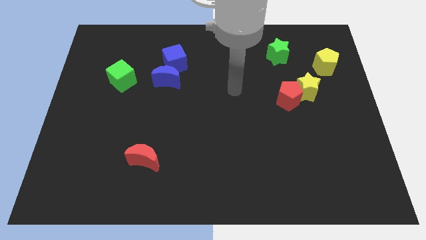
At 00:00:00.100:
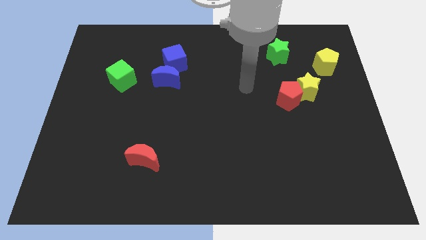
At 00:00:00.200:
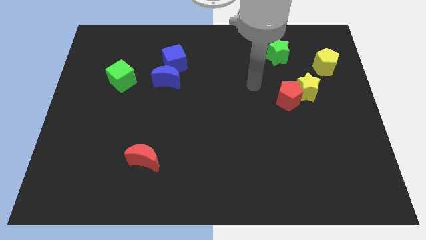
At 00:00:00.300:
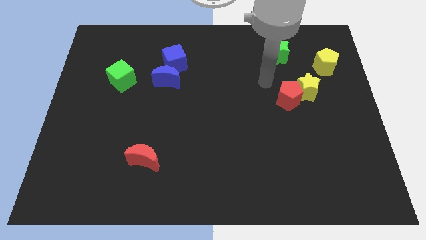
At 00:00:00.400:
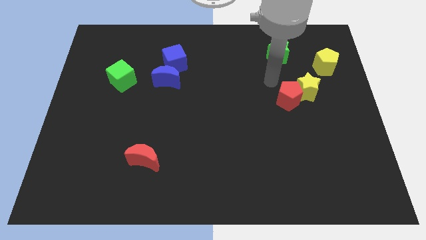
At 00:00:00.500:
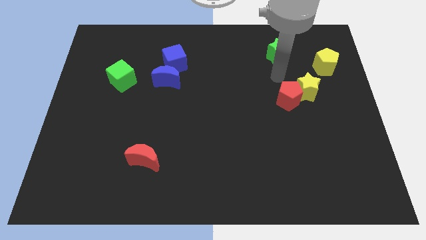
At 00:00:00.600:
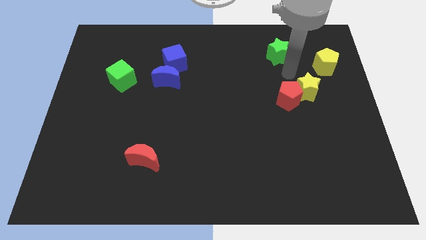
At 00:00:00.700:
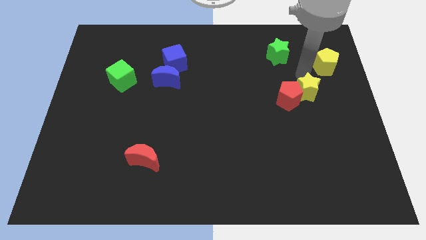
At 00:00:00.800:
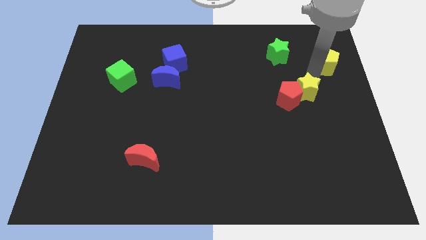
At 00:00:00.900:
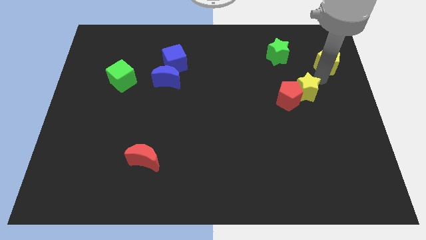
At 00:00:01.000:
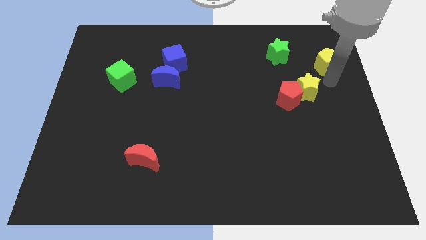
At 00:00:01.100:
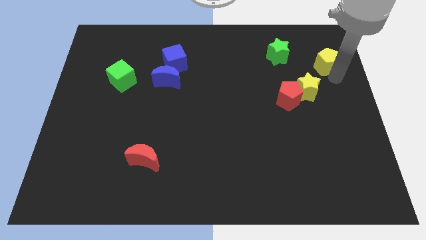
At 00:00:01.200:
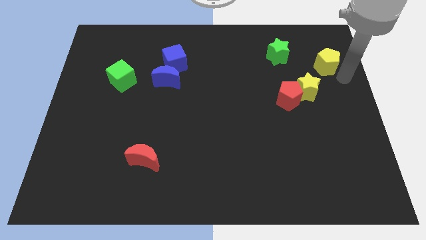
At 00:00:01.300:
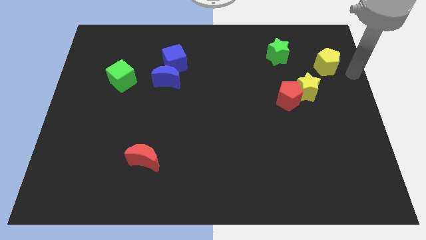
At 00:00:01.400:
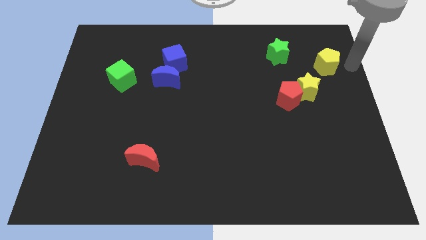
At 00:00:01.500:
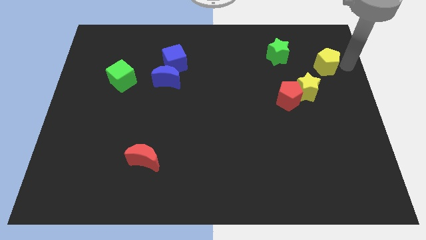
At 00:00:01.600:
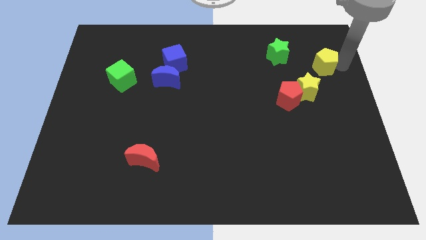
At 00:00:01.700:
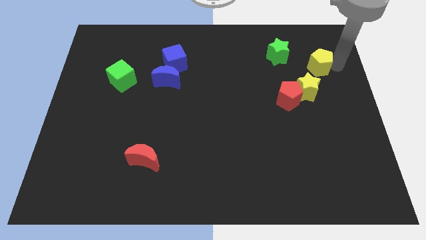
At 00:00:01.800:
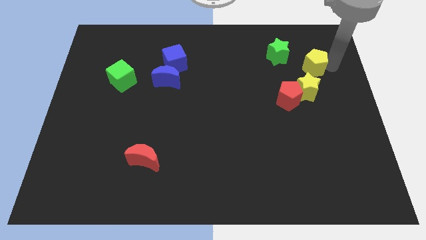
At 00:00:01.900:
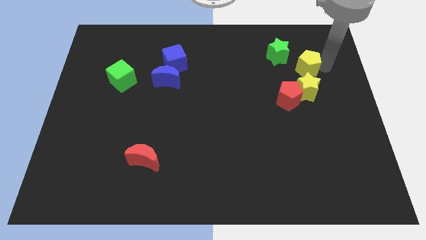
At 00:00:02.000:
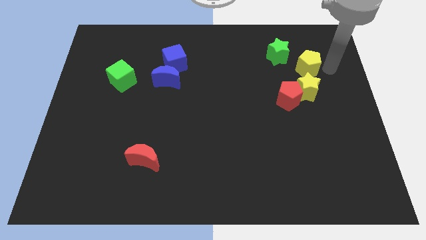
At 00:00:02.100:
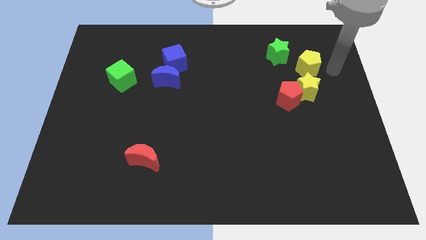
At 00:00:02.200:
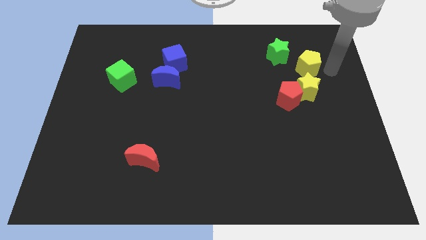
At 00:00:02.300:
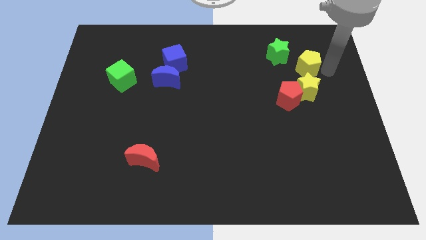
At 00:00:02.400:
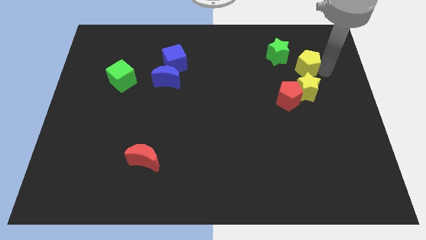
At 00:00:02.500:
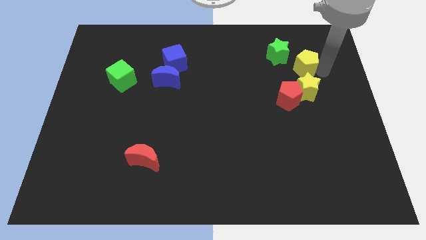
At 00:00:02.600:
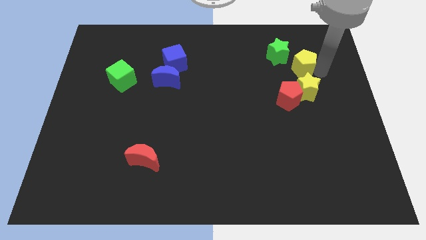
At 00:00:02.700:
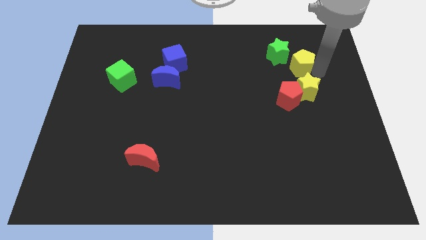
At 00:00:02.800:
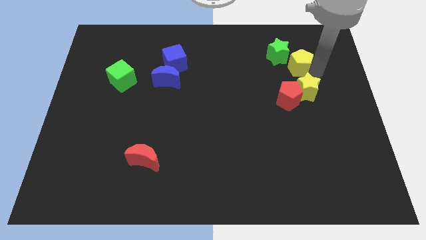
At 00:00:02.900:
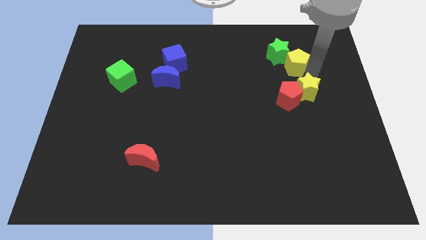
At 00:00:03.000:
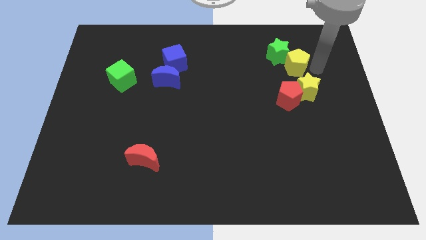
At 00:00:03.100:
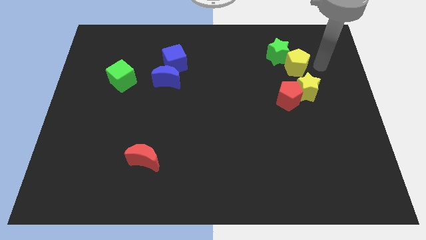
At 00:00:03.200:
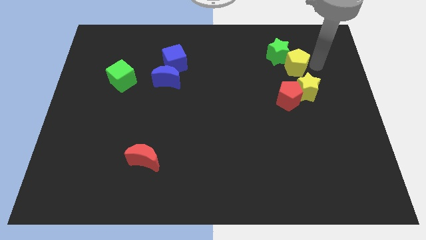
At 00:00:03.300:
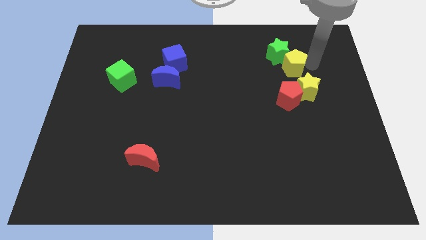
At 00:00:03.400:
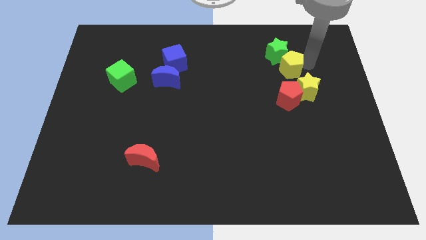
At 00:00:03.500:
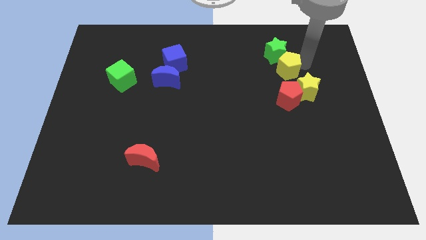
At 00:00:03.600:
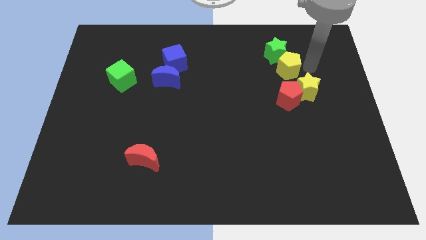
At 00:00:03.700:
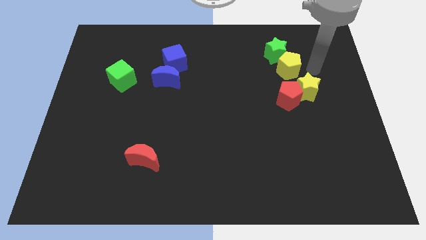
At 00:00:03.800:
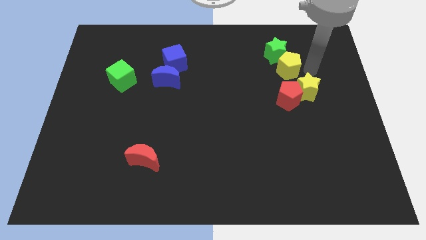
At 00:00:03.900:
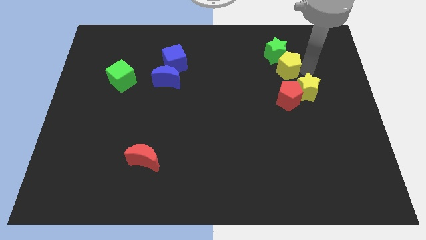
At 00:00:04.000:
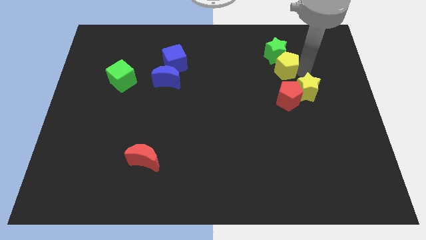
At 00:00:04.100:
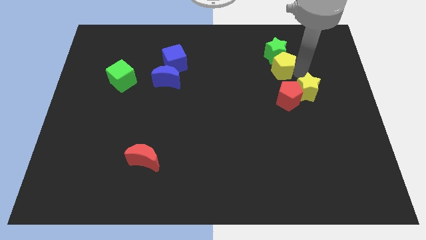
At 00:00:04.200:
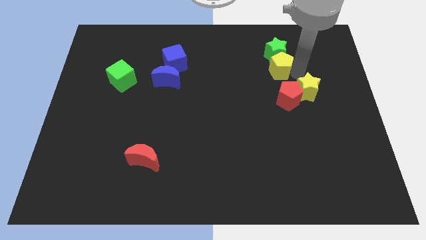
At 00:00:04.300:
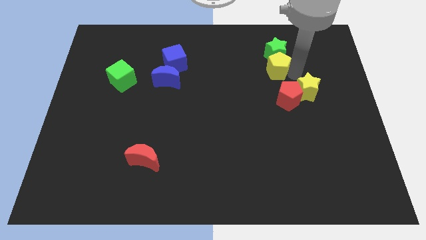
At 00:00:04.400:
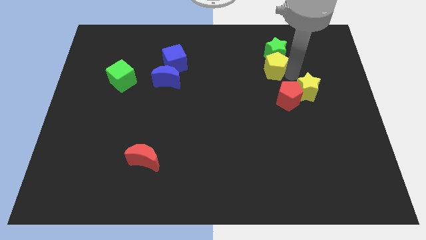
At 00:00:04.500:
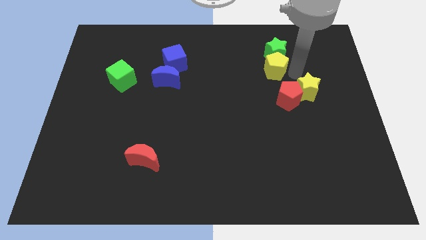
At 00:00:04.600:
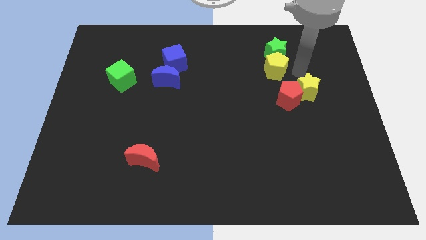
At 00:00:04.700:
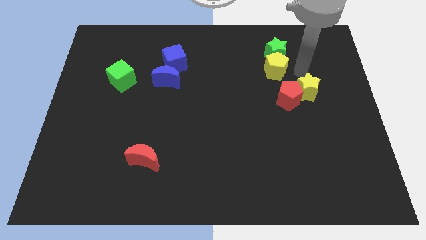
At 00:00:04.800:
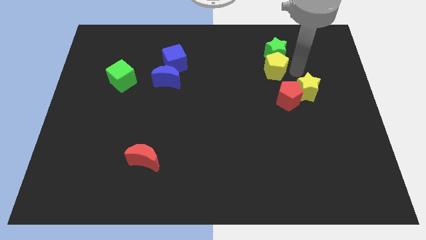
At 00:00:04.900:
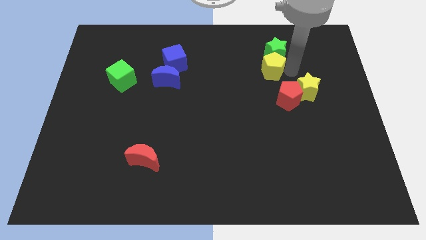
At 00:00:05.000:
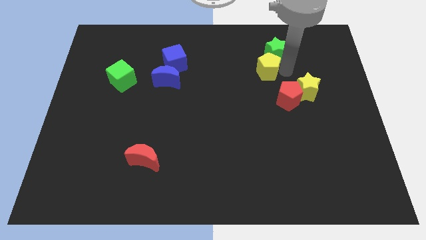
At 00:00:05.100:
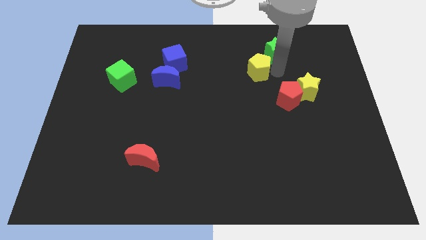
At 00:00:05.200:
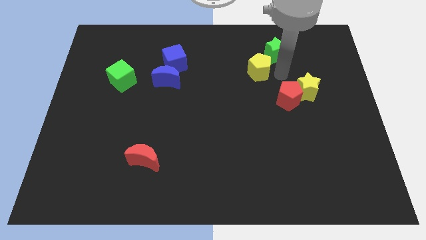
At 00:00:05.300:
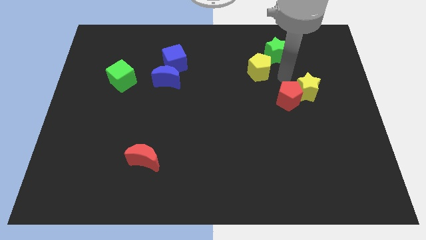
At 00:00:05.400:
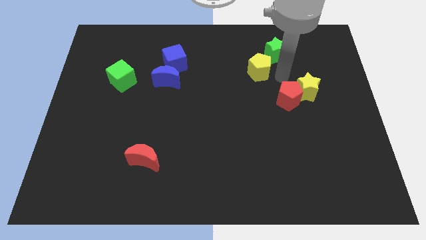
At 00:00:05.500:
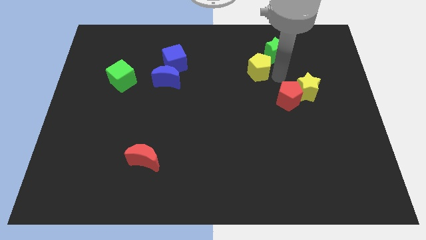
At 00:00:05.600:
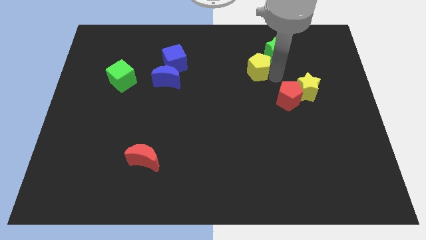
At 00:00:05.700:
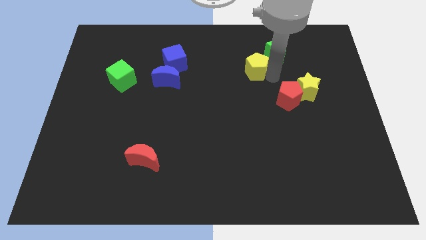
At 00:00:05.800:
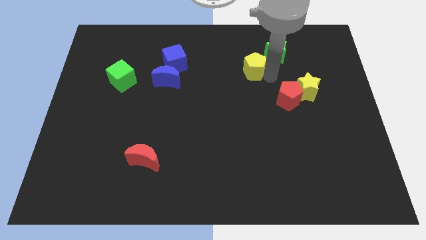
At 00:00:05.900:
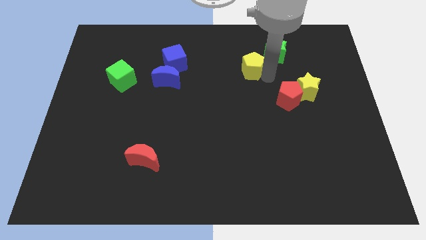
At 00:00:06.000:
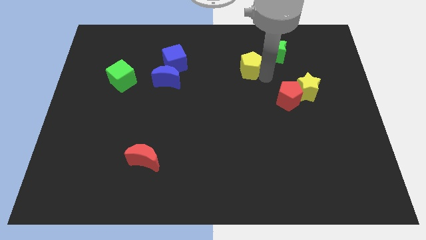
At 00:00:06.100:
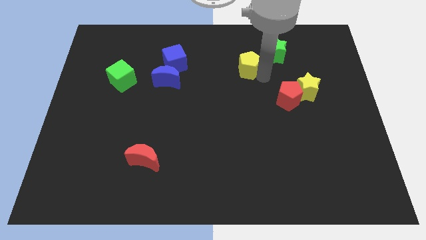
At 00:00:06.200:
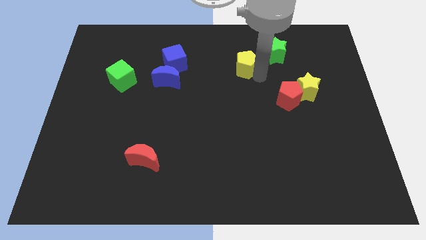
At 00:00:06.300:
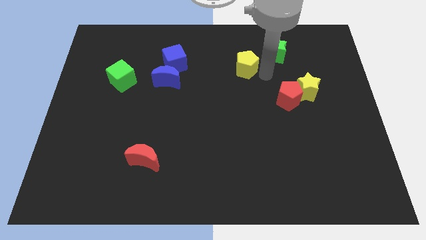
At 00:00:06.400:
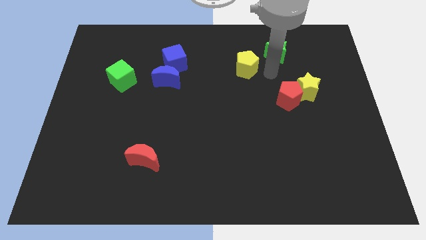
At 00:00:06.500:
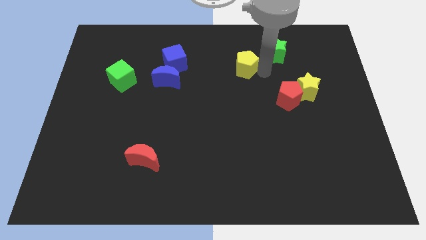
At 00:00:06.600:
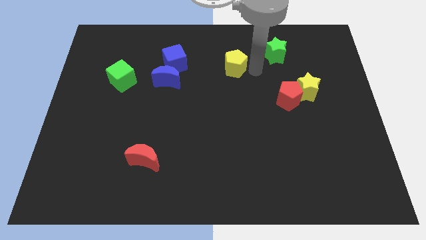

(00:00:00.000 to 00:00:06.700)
put the yellow pentagon to the right side of the blue cube

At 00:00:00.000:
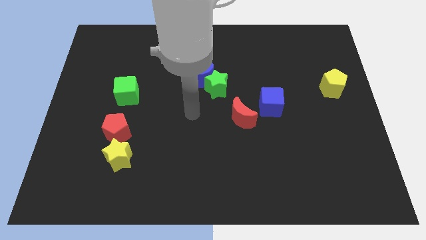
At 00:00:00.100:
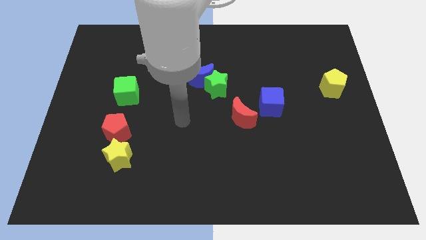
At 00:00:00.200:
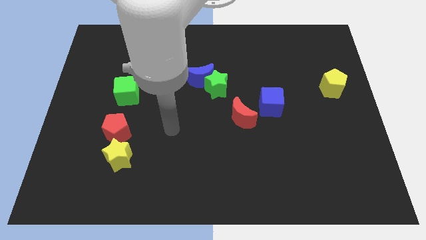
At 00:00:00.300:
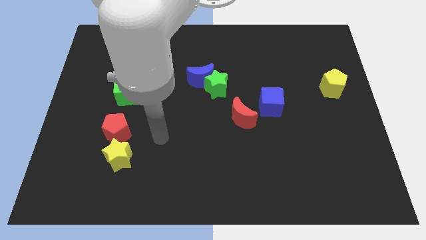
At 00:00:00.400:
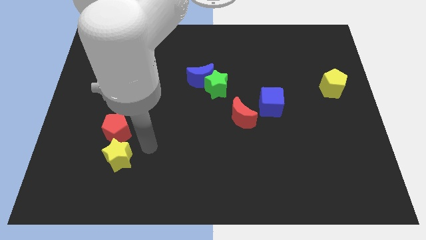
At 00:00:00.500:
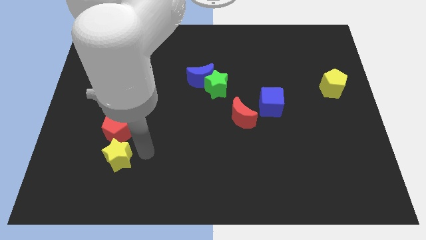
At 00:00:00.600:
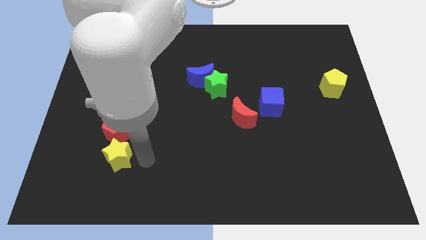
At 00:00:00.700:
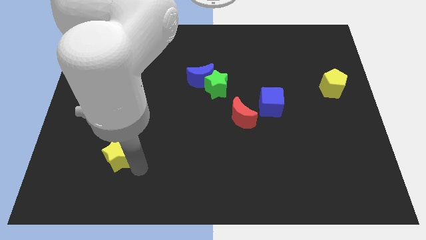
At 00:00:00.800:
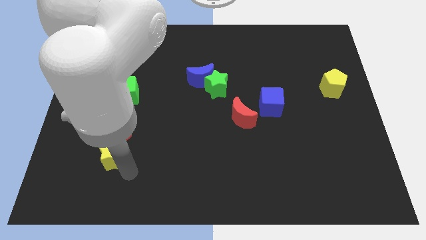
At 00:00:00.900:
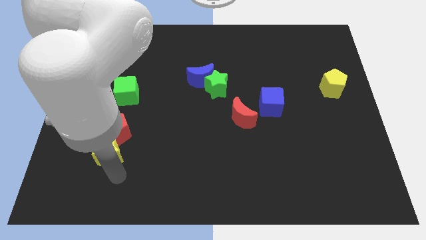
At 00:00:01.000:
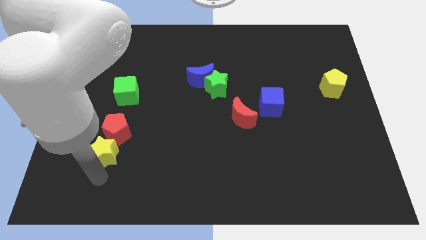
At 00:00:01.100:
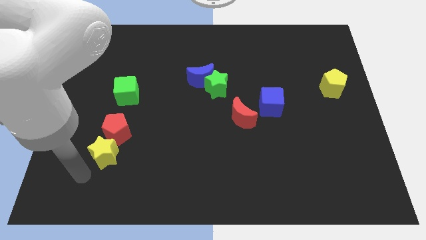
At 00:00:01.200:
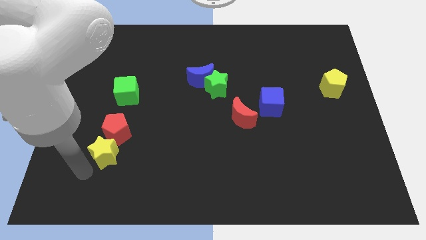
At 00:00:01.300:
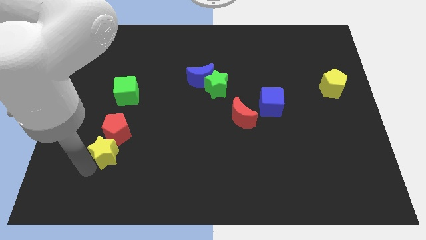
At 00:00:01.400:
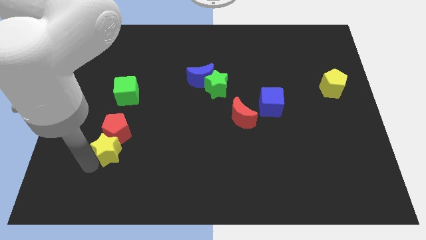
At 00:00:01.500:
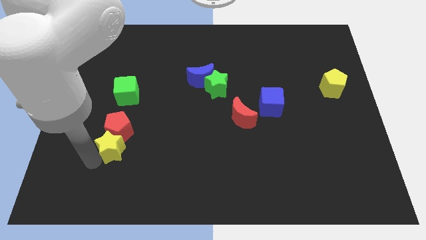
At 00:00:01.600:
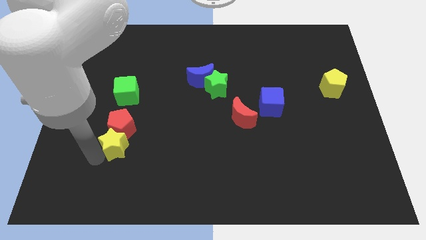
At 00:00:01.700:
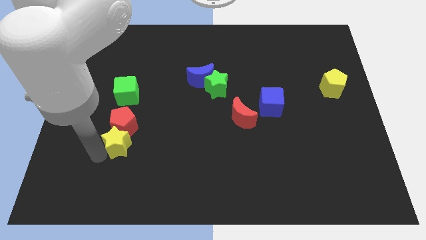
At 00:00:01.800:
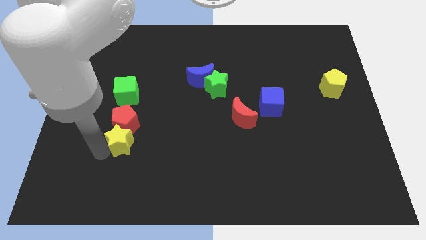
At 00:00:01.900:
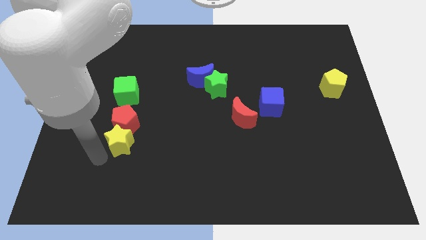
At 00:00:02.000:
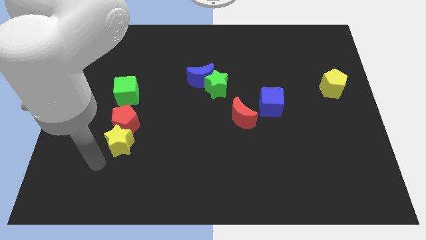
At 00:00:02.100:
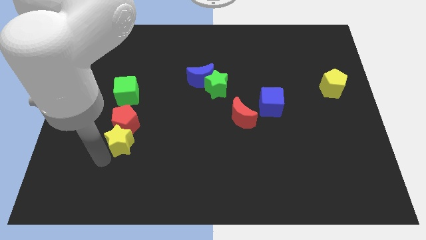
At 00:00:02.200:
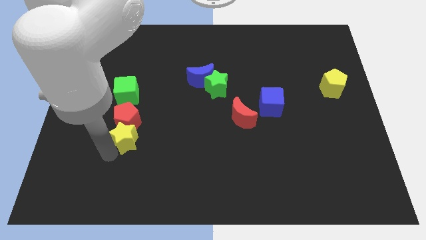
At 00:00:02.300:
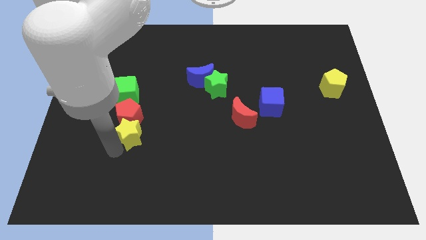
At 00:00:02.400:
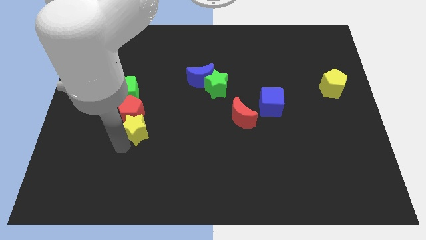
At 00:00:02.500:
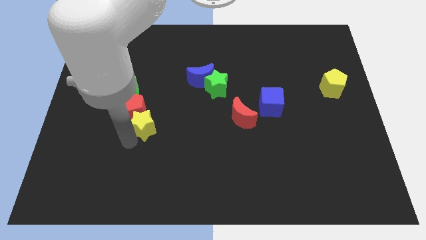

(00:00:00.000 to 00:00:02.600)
move the yellow star to the bottom right of the green cube
